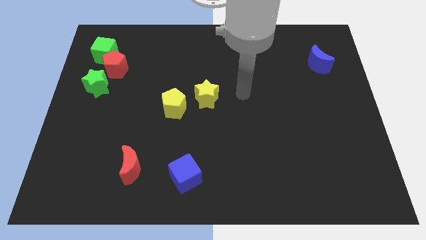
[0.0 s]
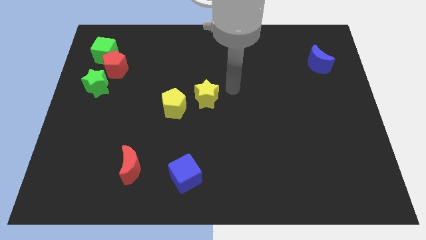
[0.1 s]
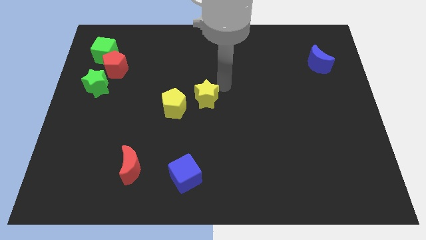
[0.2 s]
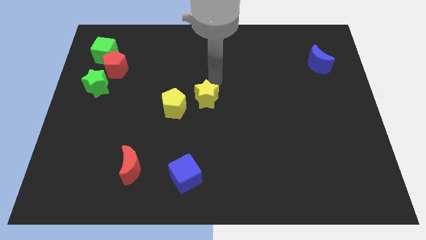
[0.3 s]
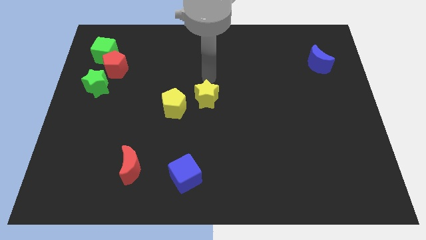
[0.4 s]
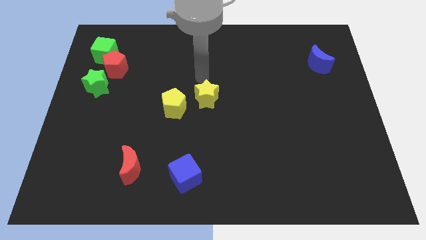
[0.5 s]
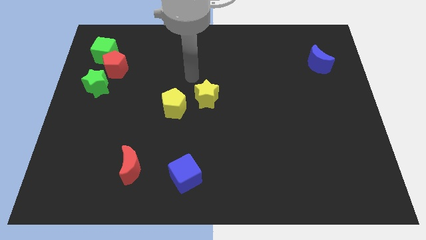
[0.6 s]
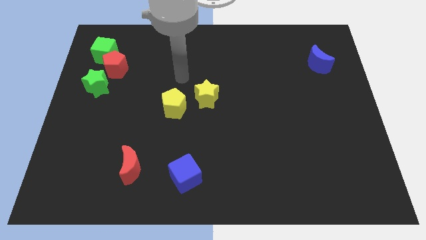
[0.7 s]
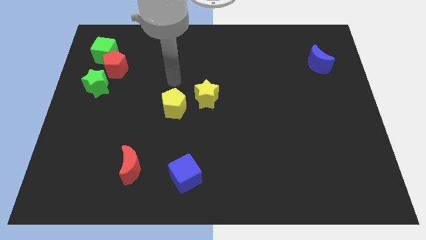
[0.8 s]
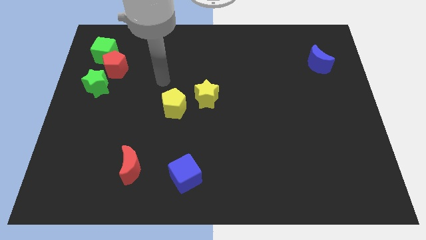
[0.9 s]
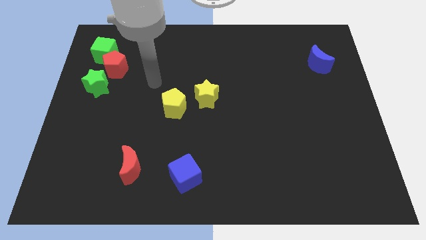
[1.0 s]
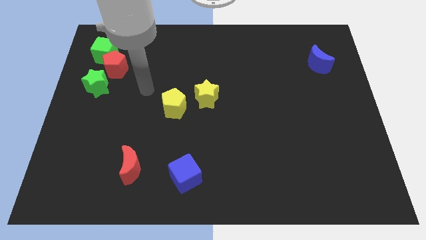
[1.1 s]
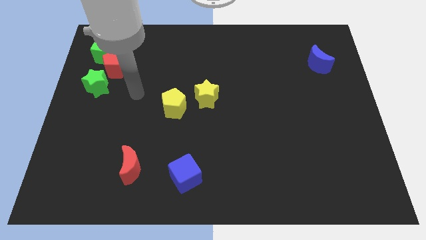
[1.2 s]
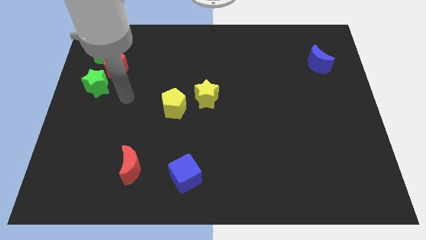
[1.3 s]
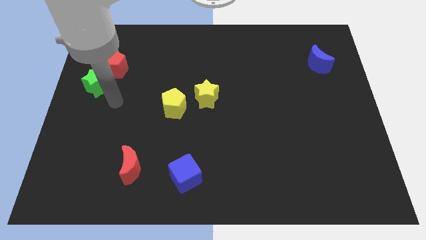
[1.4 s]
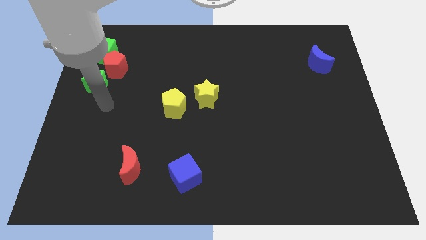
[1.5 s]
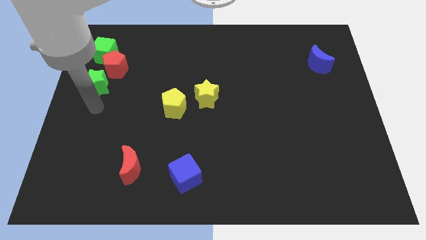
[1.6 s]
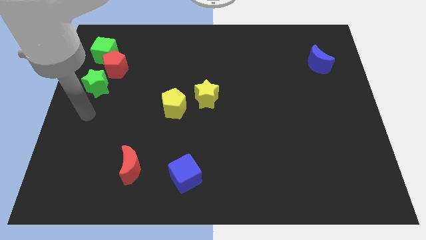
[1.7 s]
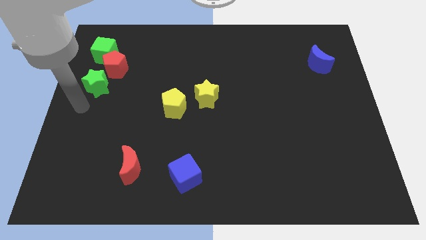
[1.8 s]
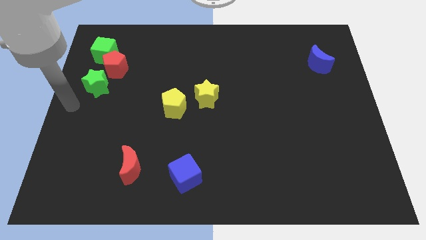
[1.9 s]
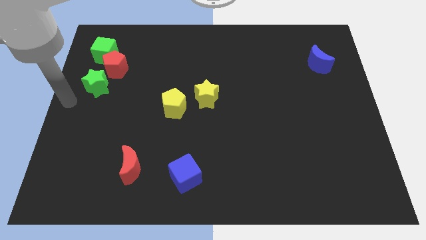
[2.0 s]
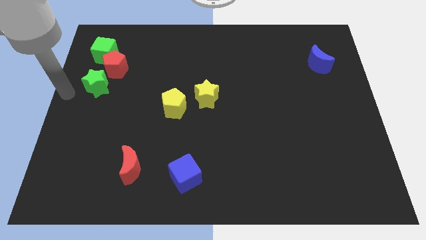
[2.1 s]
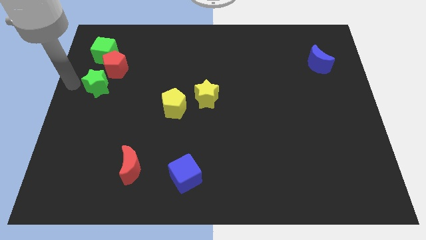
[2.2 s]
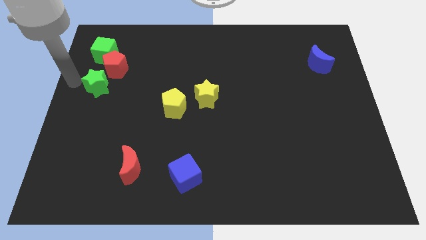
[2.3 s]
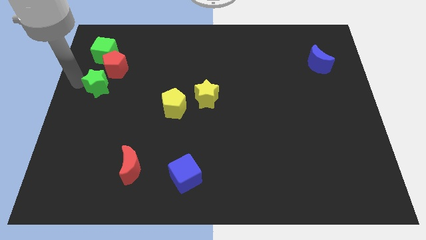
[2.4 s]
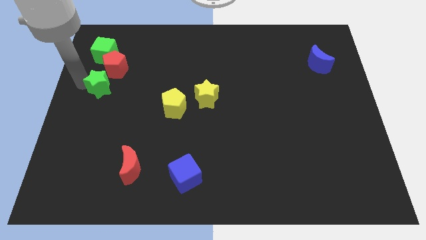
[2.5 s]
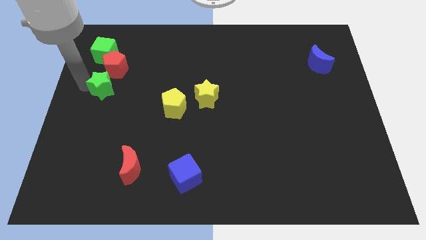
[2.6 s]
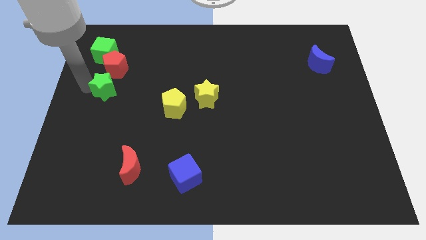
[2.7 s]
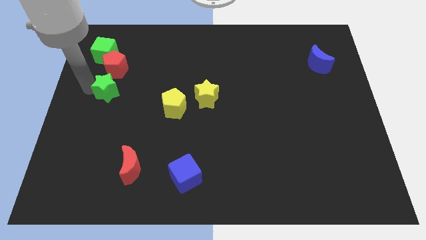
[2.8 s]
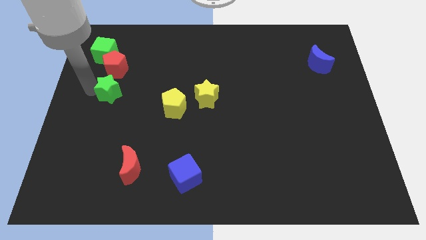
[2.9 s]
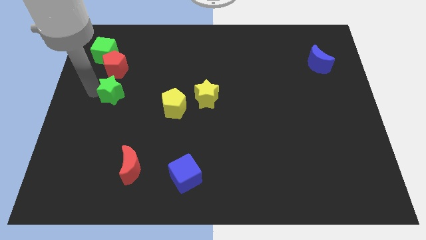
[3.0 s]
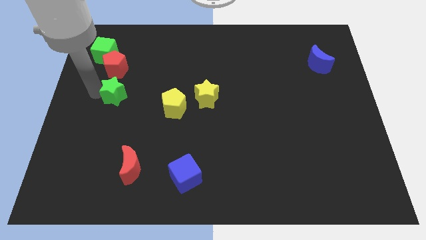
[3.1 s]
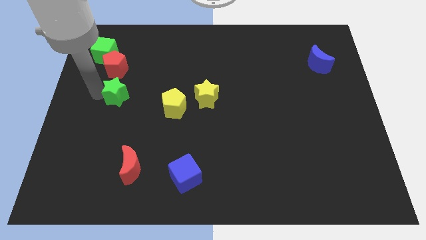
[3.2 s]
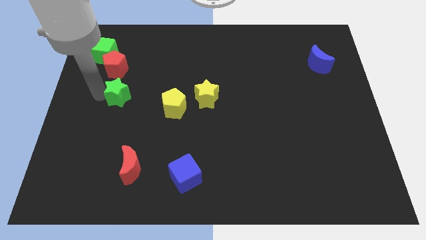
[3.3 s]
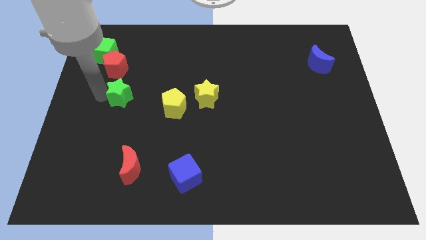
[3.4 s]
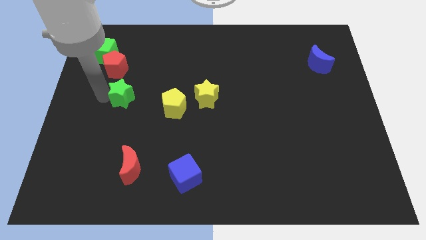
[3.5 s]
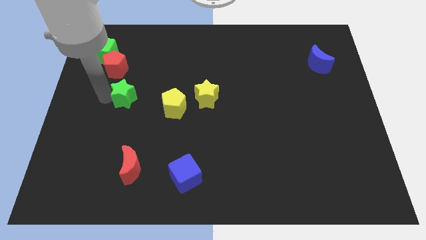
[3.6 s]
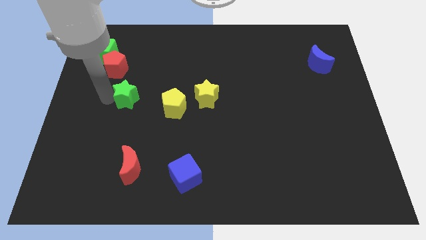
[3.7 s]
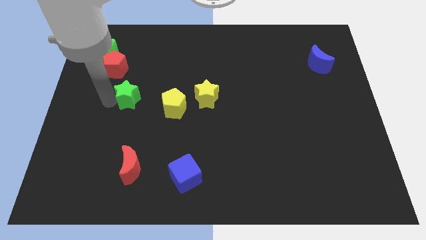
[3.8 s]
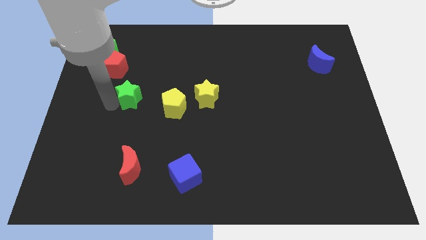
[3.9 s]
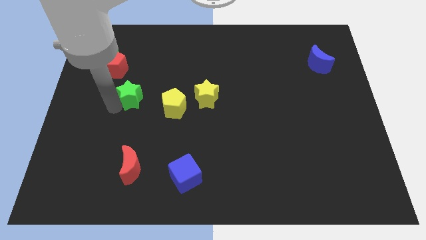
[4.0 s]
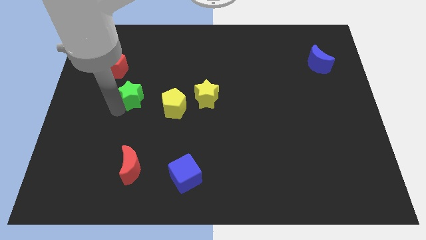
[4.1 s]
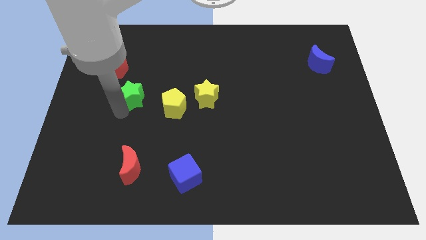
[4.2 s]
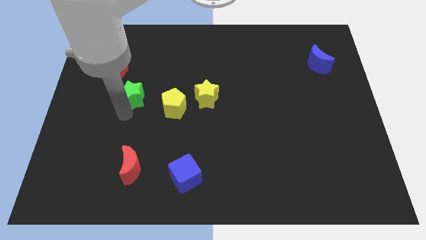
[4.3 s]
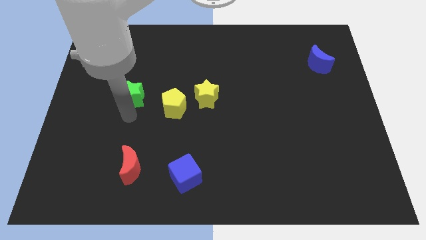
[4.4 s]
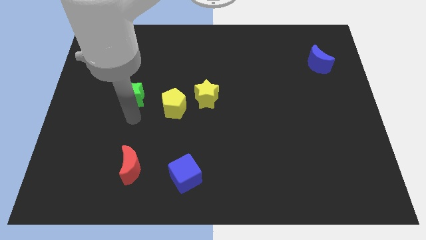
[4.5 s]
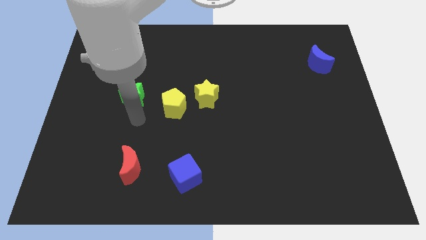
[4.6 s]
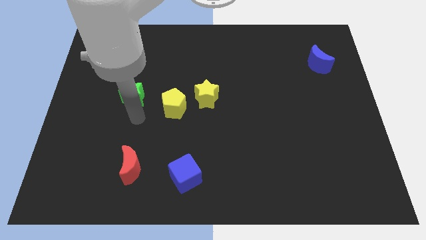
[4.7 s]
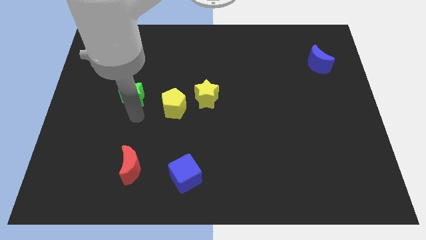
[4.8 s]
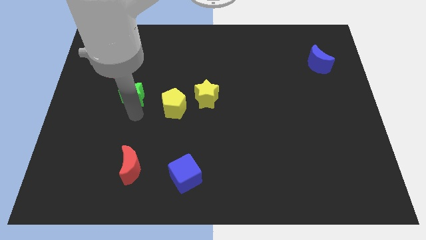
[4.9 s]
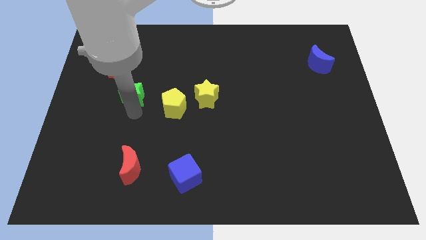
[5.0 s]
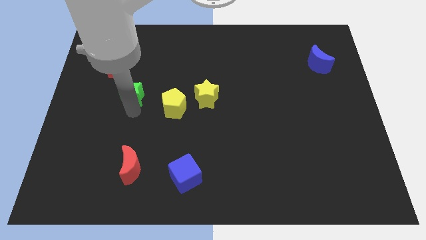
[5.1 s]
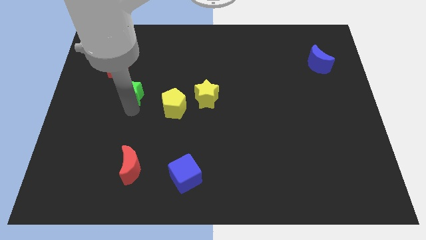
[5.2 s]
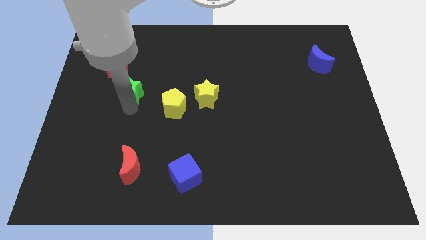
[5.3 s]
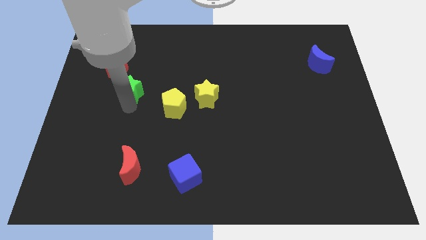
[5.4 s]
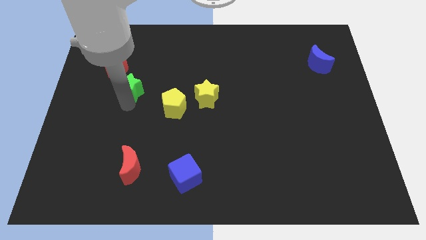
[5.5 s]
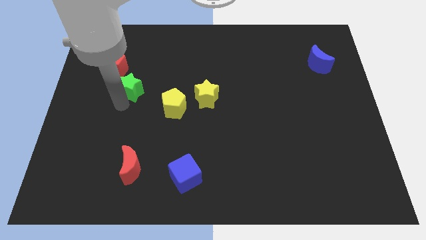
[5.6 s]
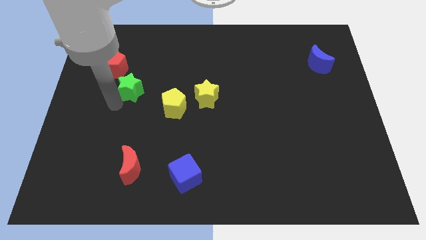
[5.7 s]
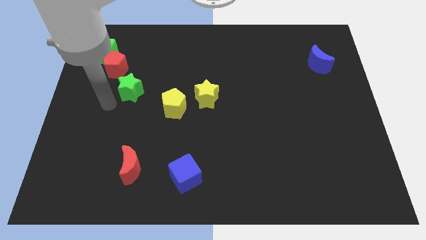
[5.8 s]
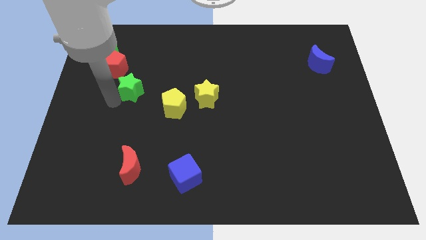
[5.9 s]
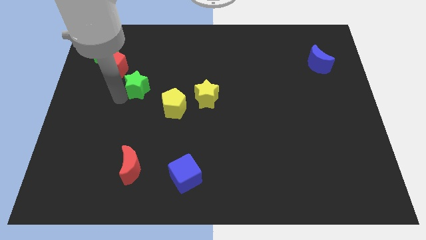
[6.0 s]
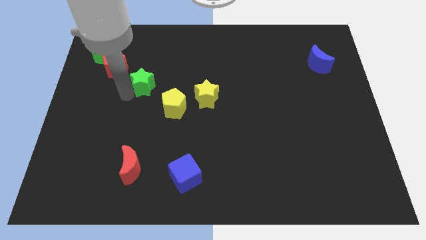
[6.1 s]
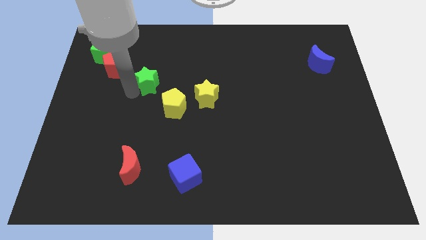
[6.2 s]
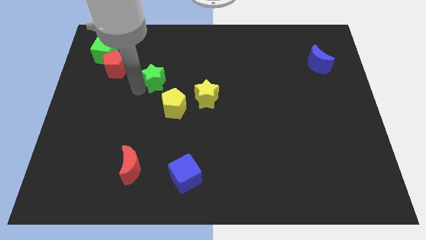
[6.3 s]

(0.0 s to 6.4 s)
move the green star to the top of the yellow pentagon
